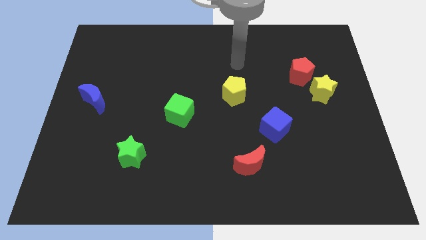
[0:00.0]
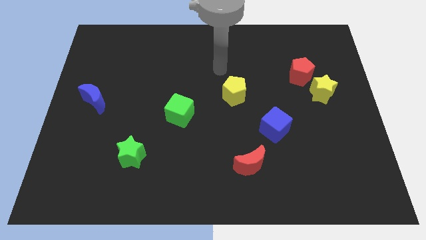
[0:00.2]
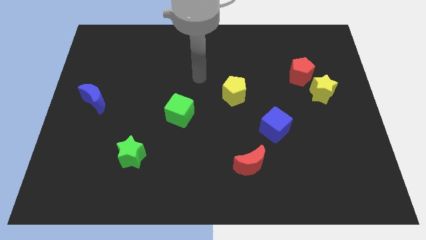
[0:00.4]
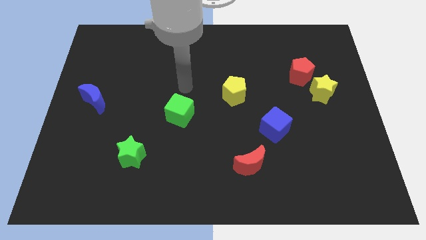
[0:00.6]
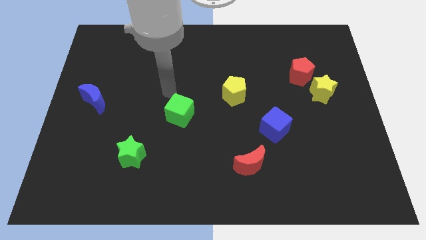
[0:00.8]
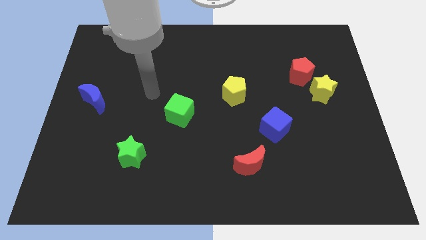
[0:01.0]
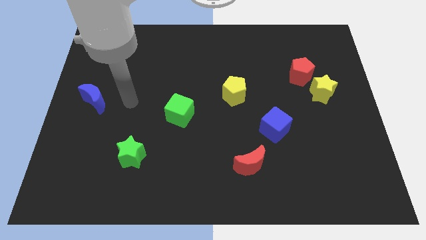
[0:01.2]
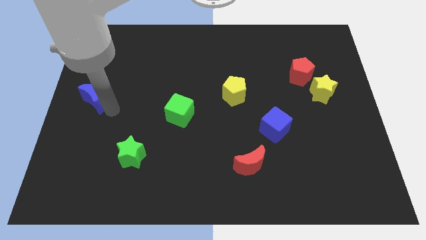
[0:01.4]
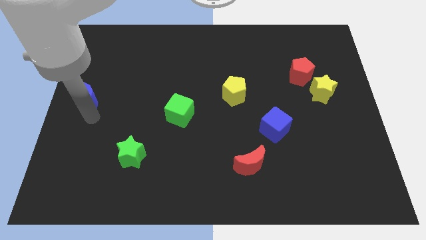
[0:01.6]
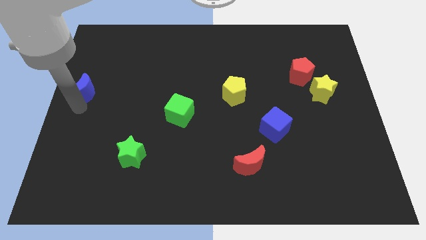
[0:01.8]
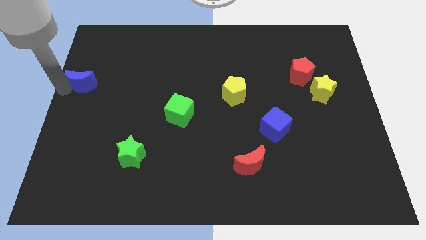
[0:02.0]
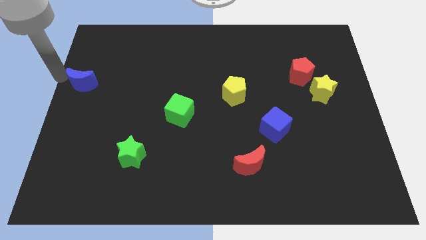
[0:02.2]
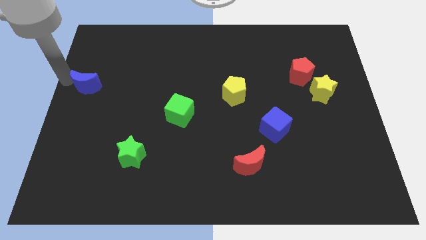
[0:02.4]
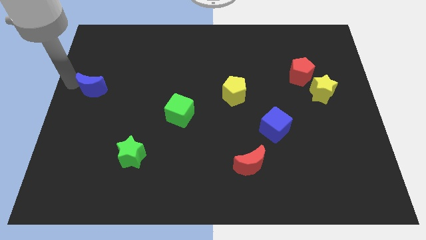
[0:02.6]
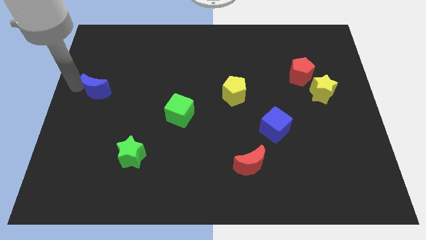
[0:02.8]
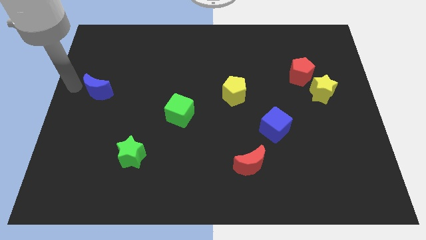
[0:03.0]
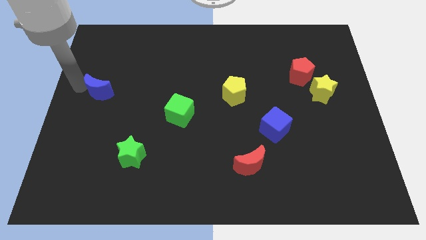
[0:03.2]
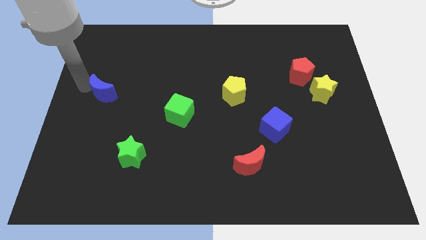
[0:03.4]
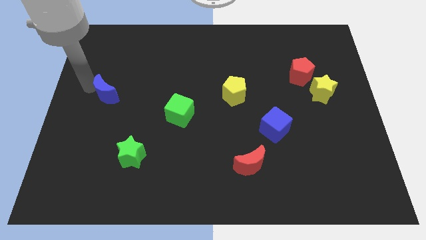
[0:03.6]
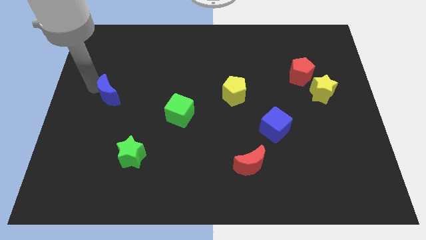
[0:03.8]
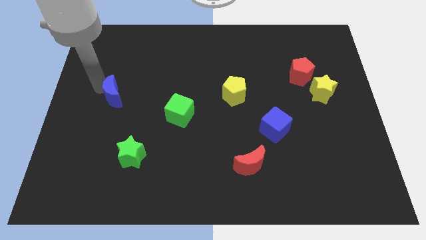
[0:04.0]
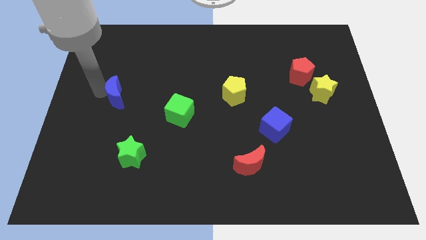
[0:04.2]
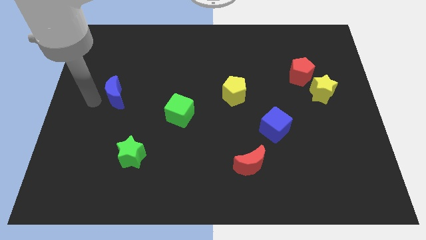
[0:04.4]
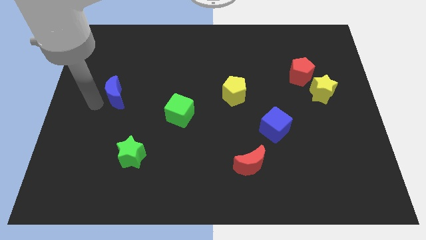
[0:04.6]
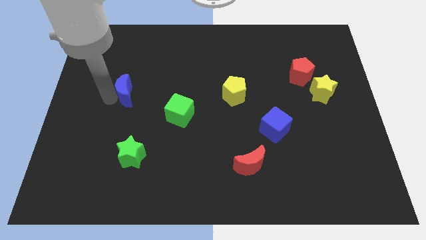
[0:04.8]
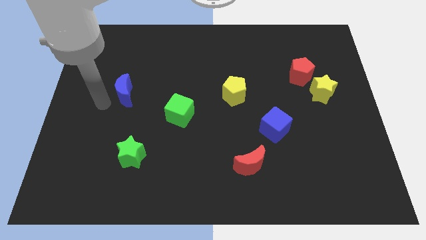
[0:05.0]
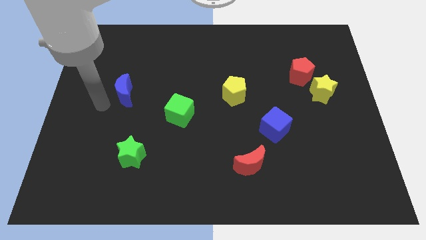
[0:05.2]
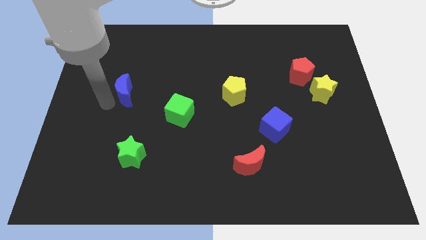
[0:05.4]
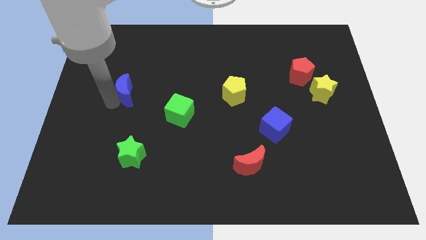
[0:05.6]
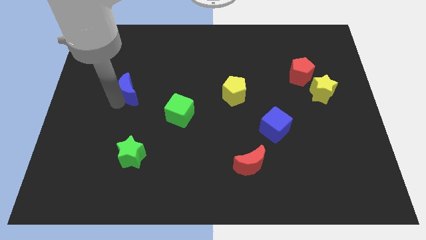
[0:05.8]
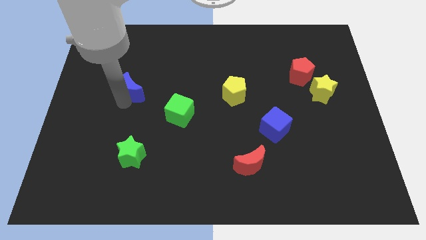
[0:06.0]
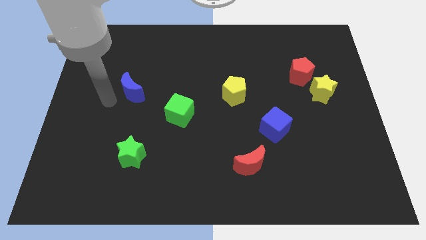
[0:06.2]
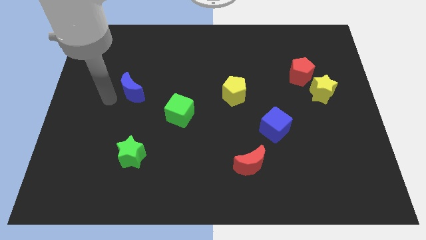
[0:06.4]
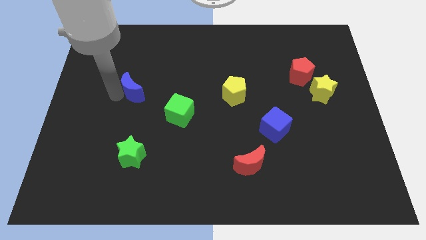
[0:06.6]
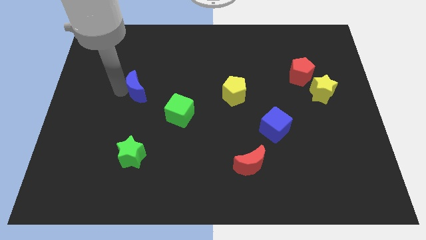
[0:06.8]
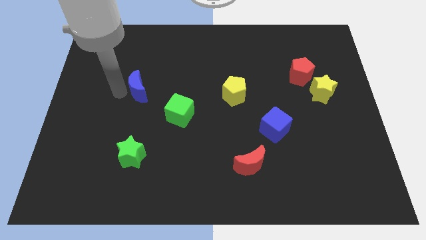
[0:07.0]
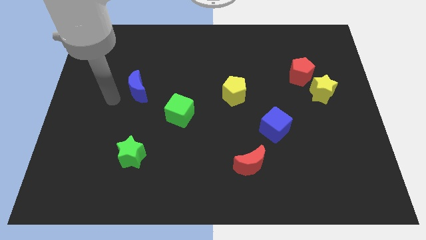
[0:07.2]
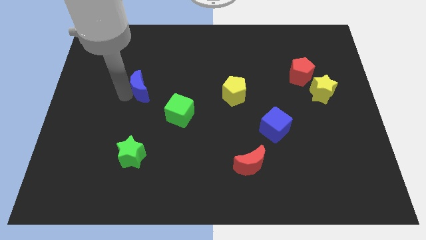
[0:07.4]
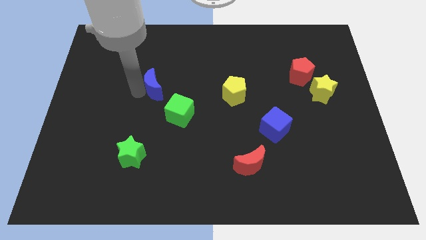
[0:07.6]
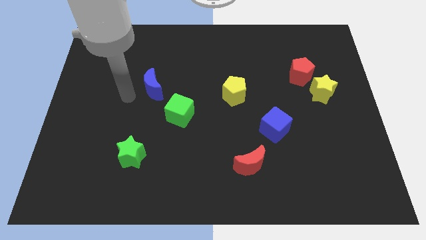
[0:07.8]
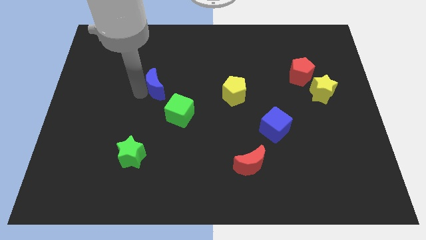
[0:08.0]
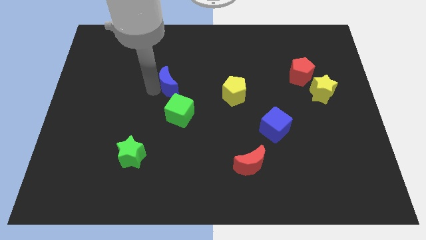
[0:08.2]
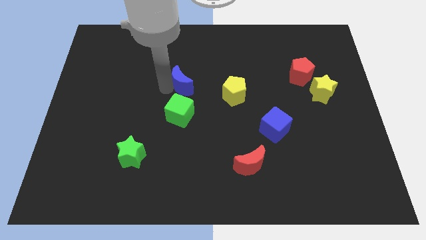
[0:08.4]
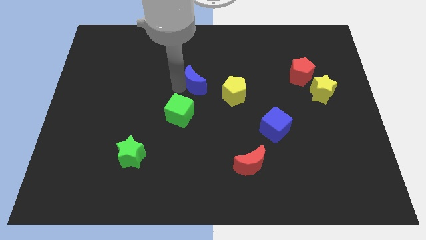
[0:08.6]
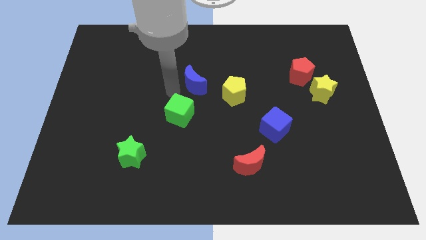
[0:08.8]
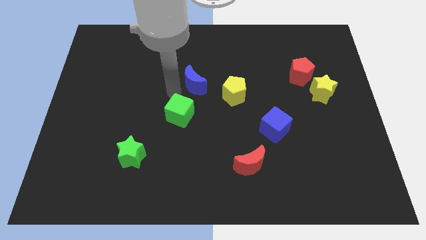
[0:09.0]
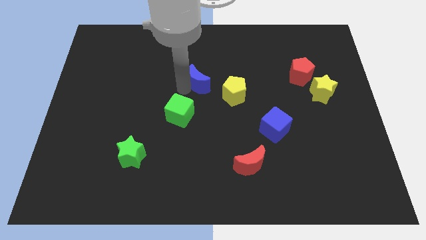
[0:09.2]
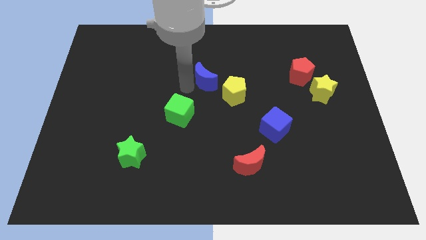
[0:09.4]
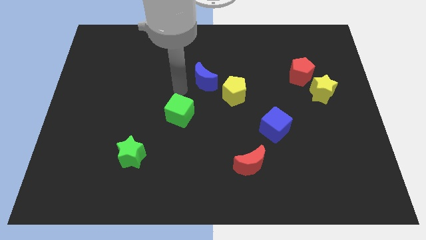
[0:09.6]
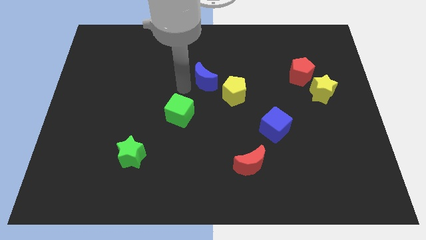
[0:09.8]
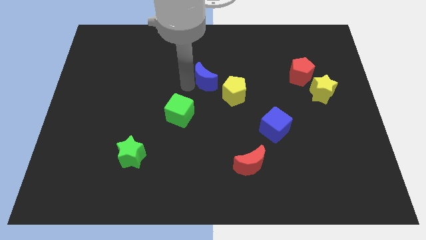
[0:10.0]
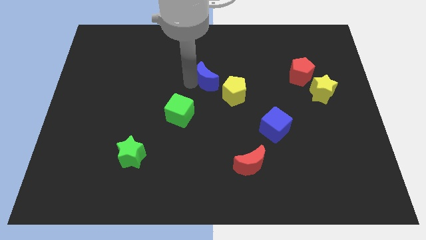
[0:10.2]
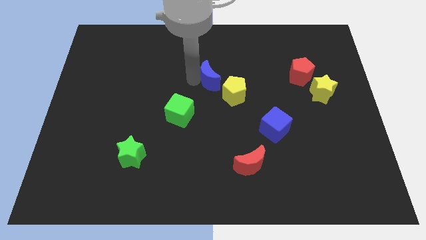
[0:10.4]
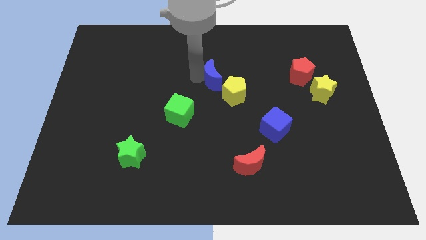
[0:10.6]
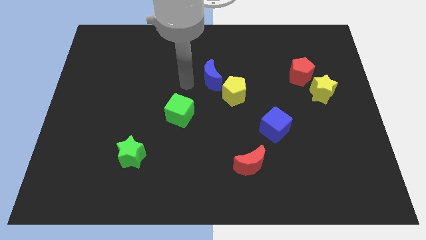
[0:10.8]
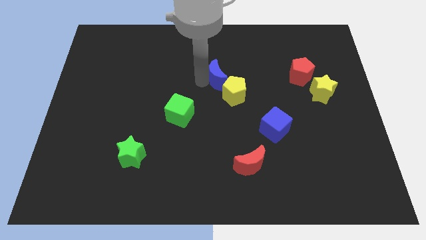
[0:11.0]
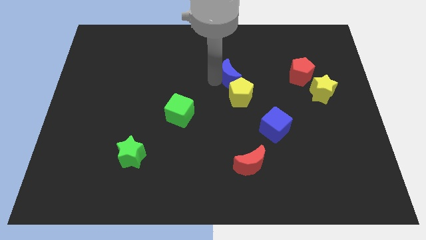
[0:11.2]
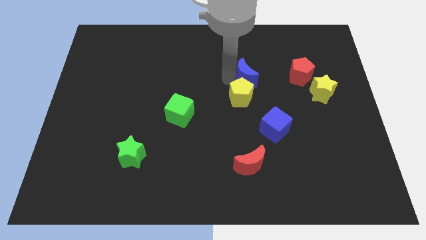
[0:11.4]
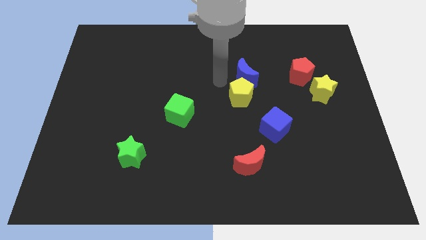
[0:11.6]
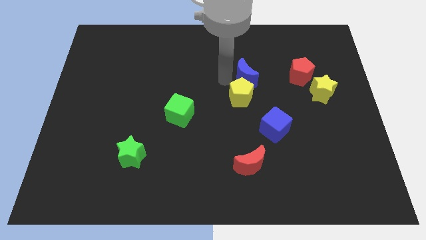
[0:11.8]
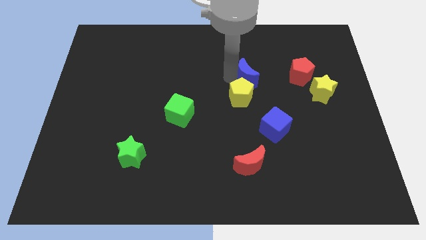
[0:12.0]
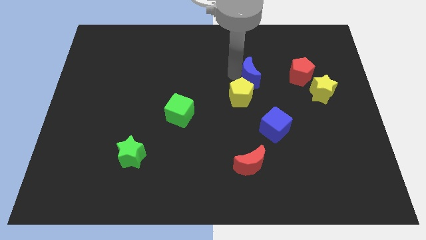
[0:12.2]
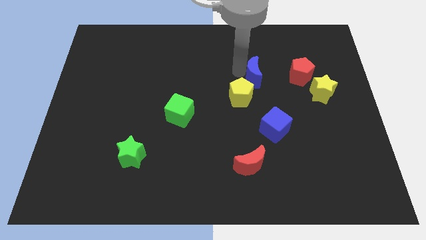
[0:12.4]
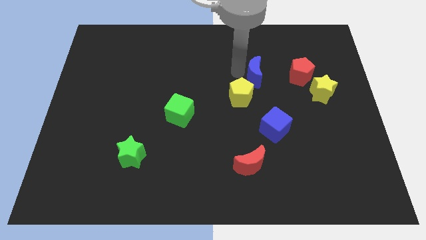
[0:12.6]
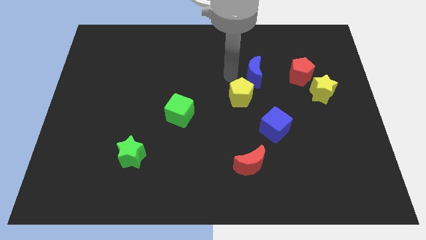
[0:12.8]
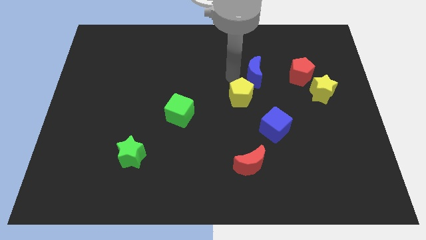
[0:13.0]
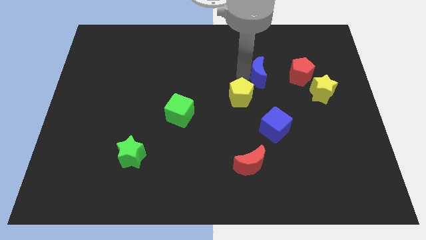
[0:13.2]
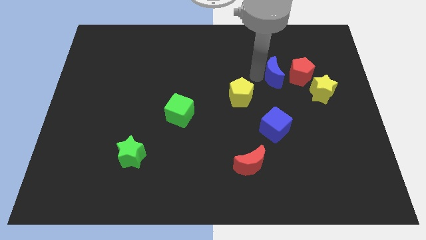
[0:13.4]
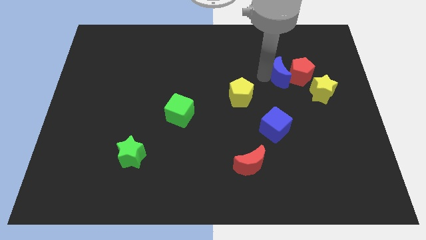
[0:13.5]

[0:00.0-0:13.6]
move the blue moon towards the red pentagon
